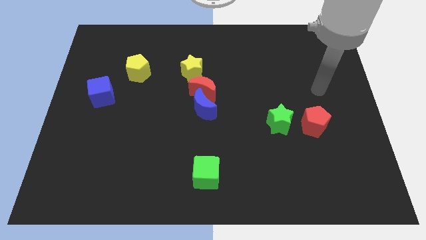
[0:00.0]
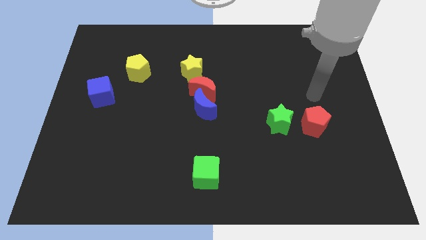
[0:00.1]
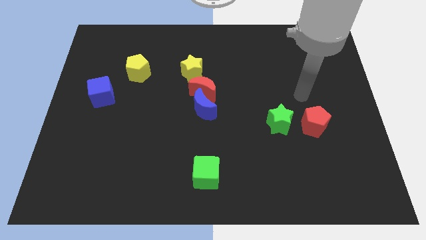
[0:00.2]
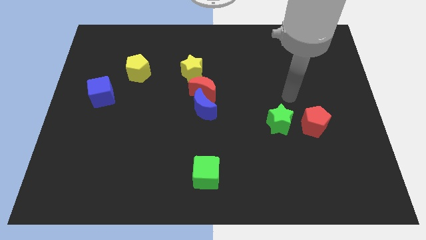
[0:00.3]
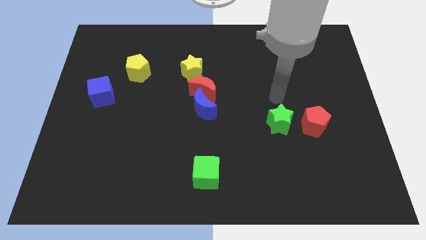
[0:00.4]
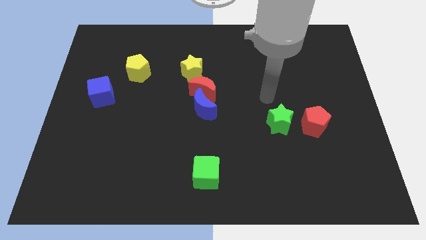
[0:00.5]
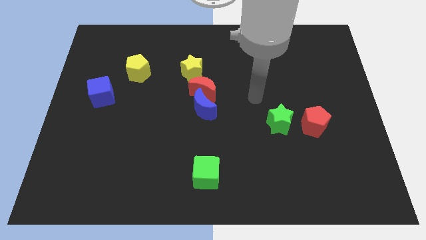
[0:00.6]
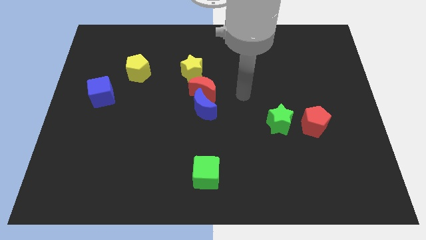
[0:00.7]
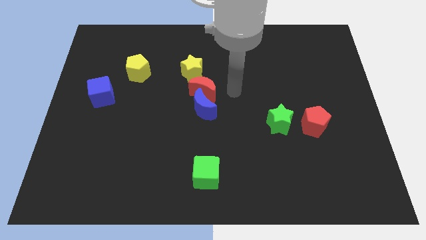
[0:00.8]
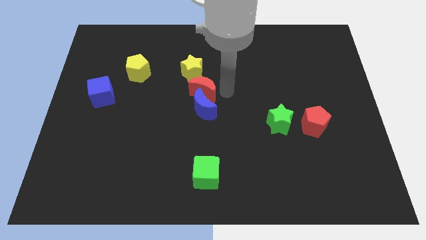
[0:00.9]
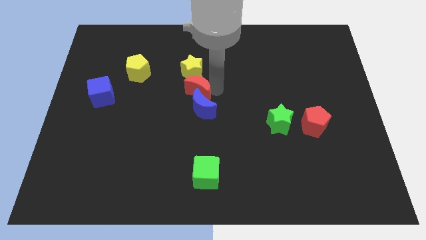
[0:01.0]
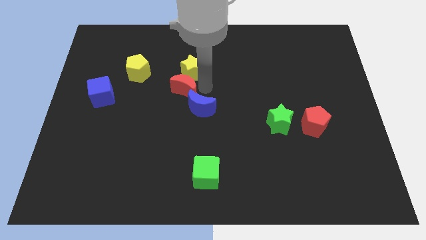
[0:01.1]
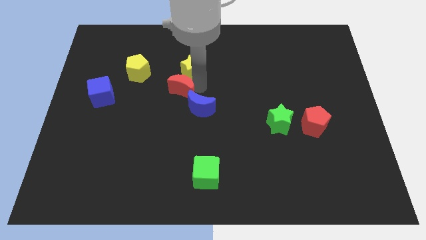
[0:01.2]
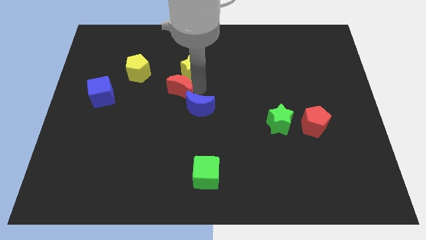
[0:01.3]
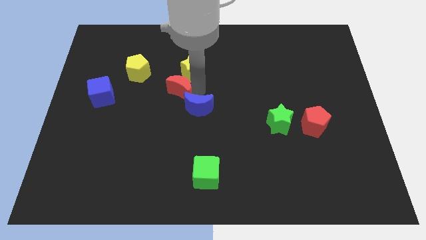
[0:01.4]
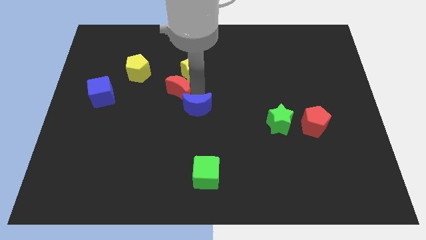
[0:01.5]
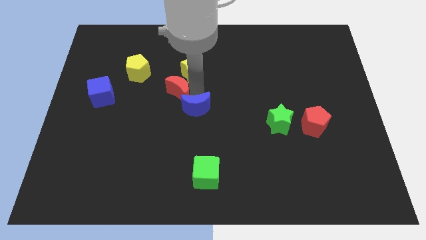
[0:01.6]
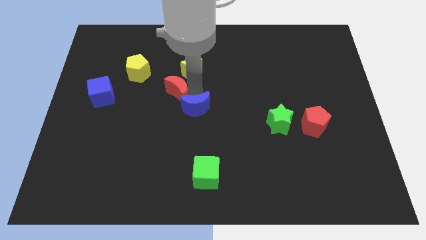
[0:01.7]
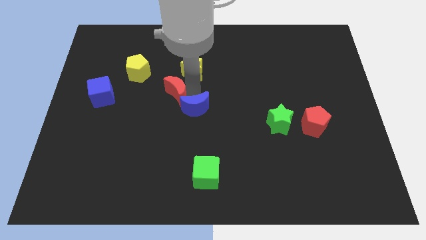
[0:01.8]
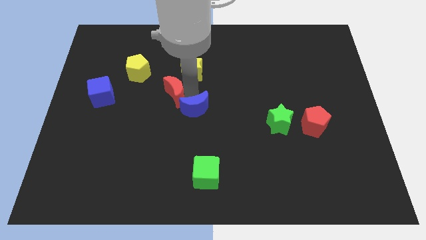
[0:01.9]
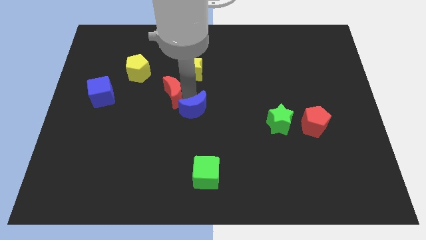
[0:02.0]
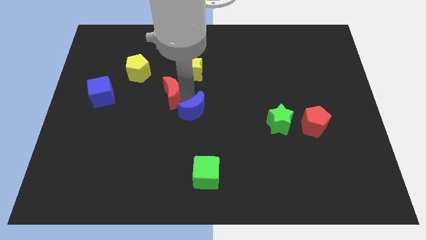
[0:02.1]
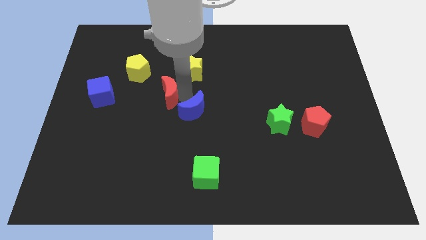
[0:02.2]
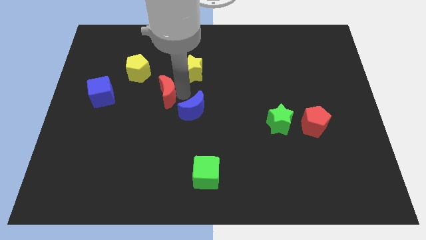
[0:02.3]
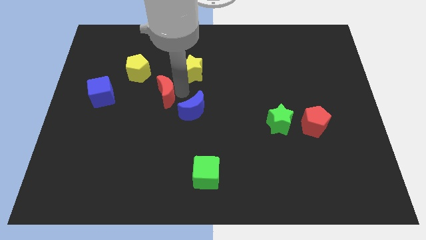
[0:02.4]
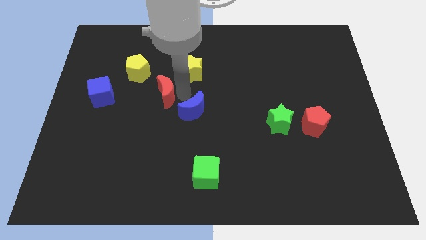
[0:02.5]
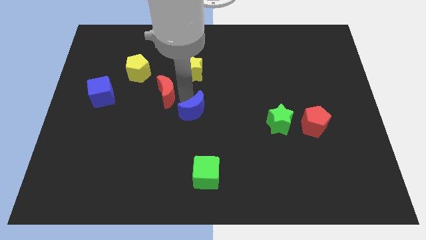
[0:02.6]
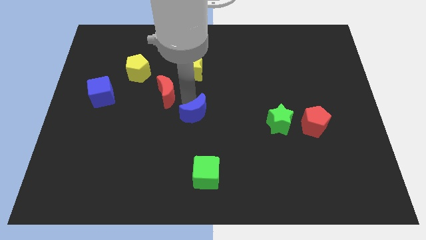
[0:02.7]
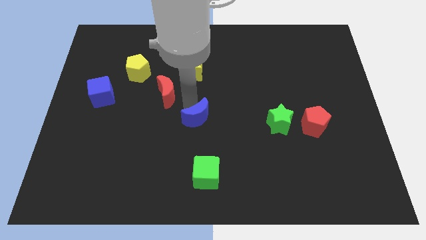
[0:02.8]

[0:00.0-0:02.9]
pull the blue moon apart from the red moon

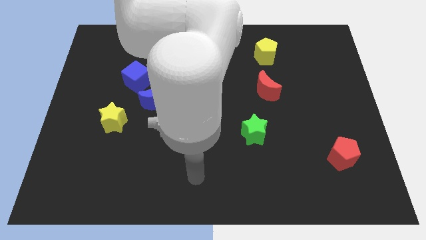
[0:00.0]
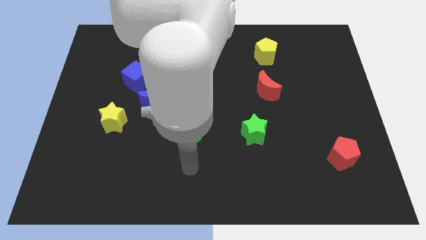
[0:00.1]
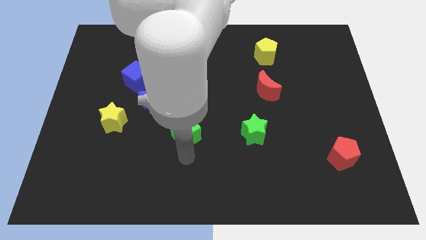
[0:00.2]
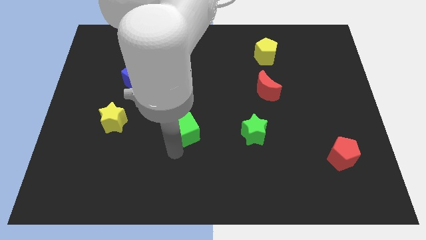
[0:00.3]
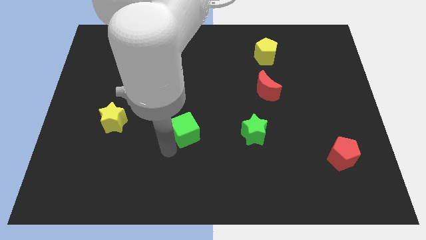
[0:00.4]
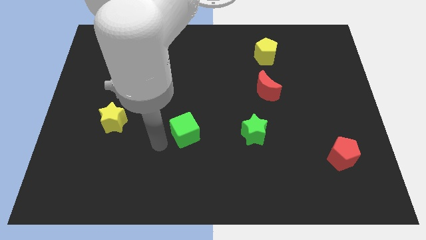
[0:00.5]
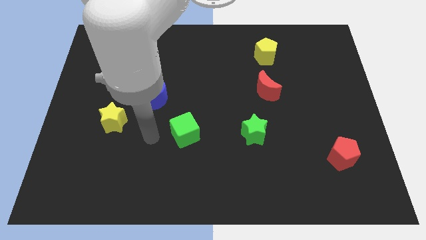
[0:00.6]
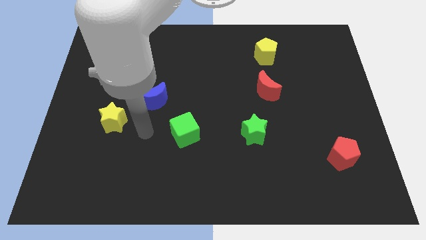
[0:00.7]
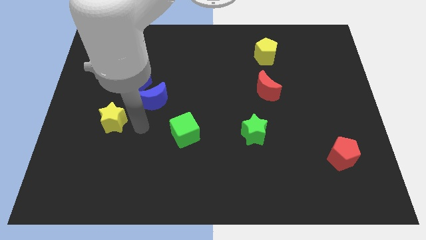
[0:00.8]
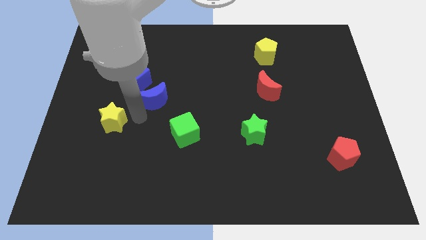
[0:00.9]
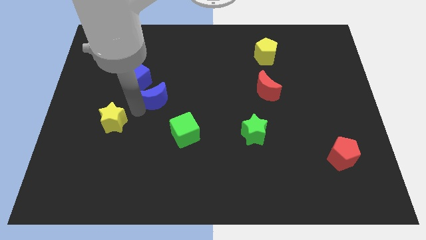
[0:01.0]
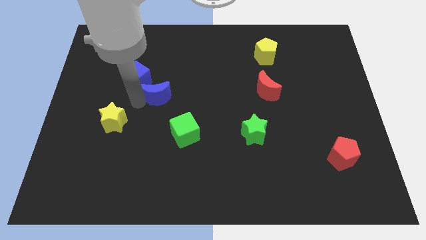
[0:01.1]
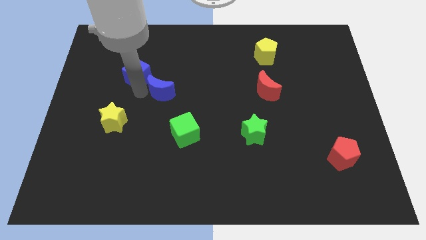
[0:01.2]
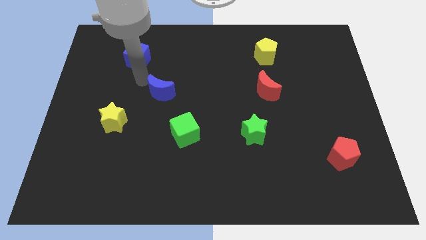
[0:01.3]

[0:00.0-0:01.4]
pull the blue moon apart from the blue cube

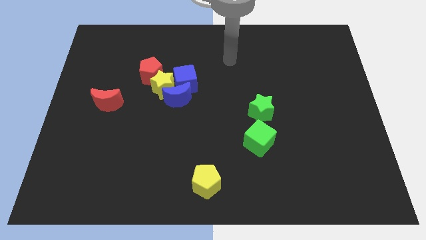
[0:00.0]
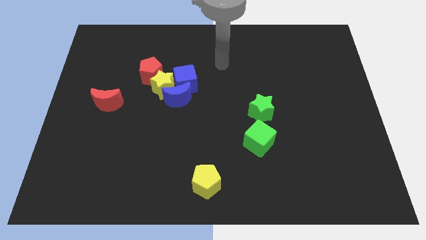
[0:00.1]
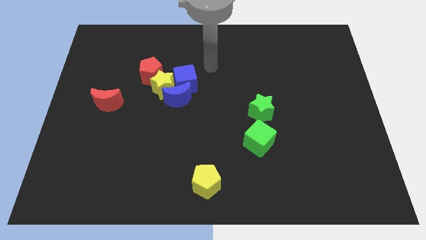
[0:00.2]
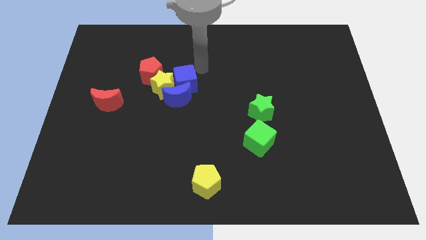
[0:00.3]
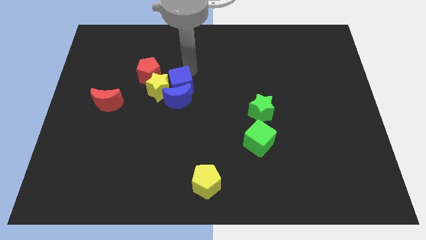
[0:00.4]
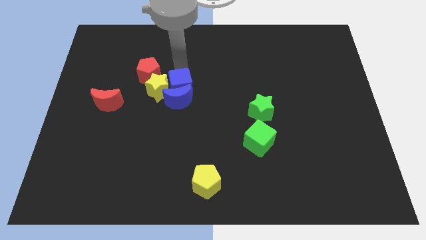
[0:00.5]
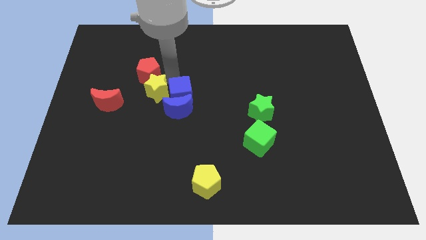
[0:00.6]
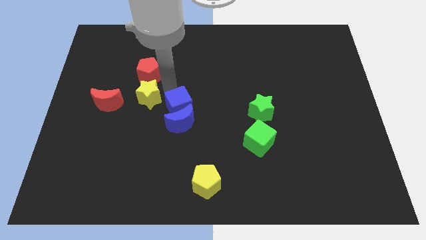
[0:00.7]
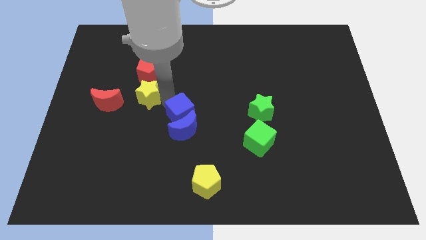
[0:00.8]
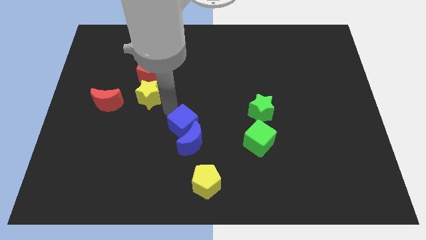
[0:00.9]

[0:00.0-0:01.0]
move the blue moon away from the yellow star and blue cube

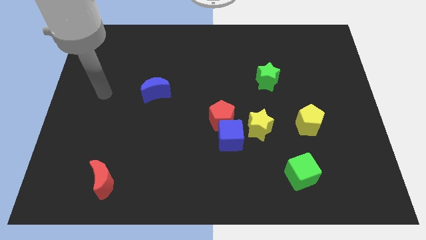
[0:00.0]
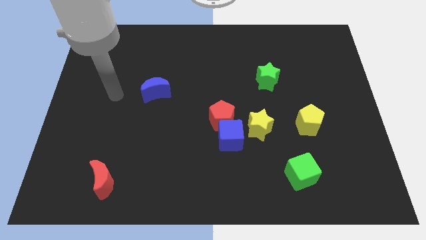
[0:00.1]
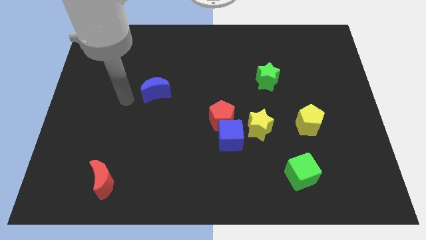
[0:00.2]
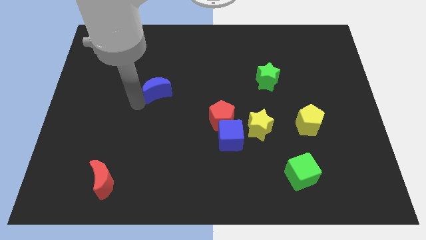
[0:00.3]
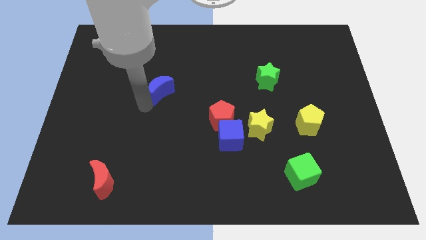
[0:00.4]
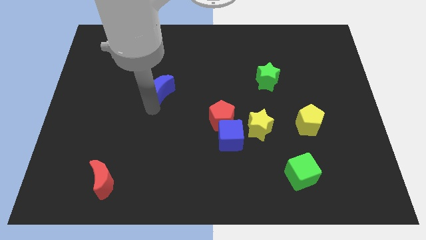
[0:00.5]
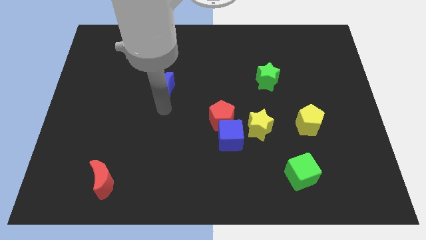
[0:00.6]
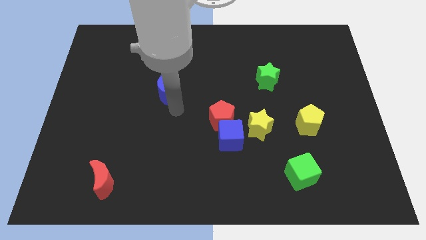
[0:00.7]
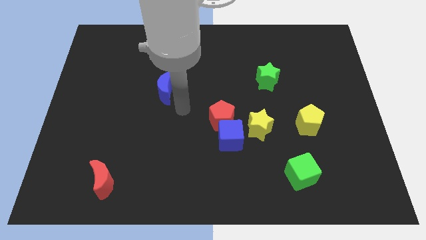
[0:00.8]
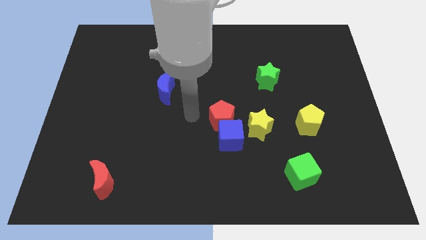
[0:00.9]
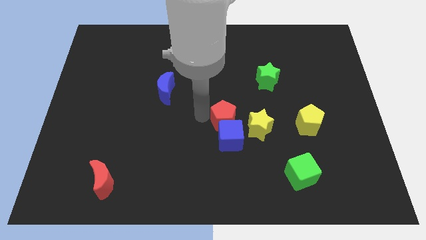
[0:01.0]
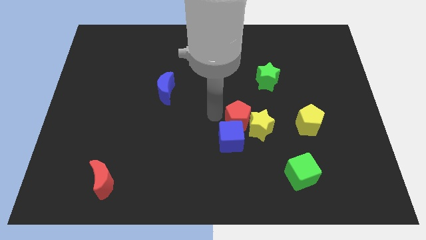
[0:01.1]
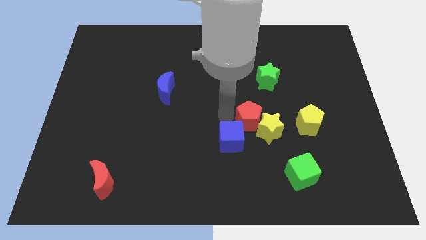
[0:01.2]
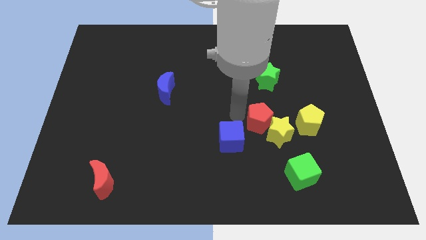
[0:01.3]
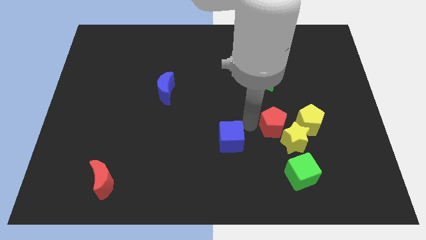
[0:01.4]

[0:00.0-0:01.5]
pull the blue cube apart from the red pentagon and yellow star

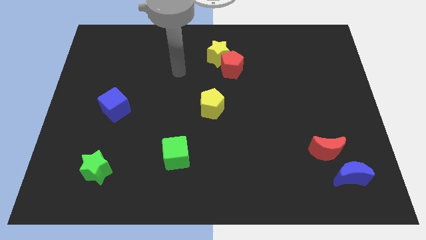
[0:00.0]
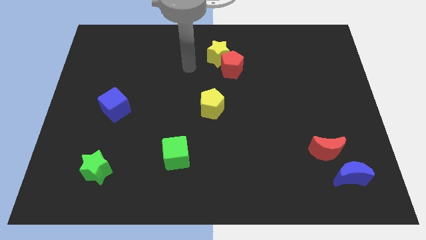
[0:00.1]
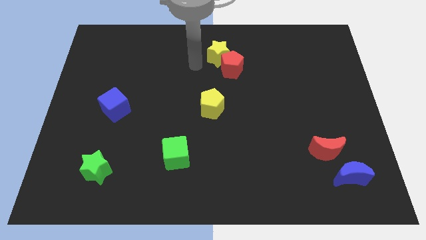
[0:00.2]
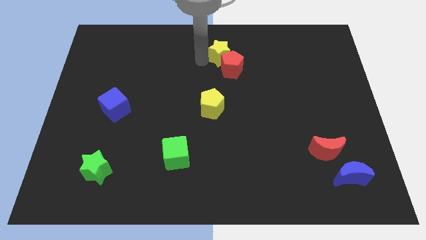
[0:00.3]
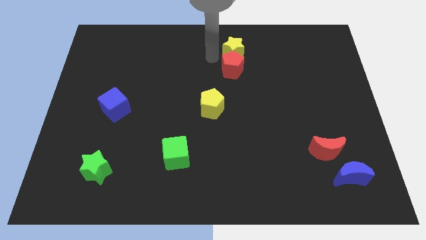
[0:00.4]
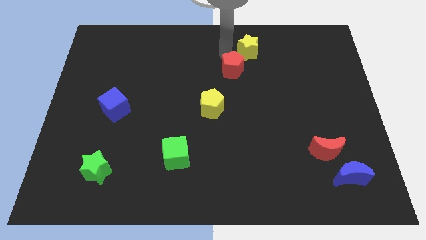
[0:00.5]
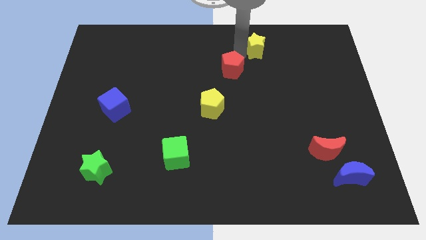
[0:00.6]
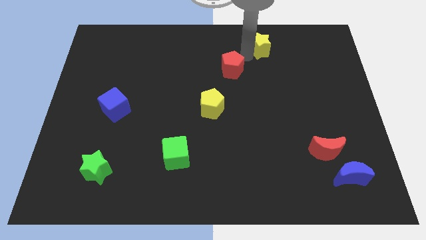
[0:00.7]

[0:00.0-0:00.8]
separate the red pentagon from the yellow star

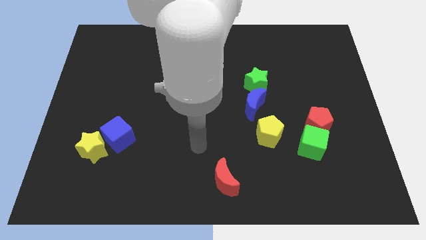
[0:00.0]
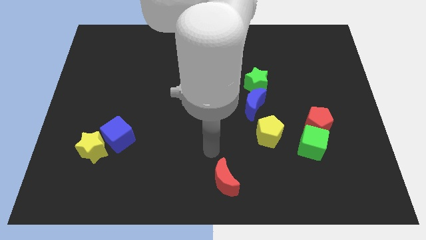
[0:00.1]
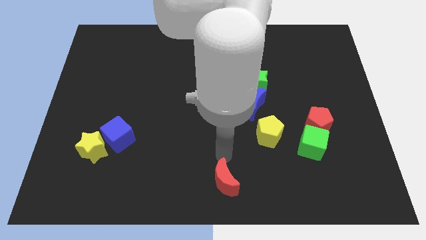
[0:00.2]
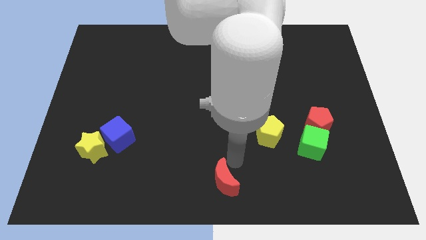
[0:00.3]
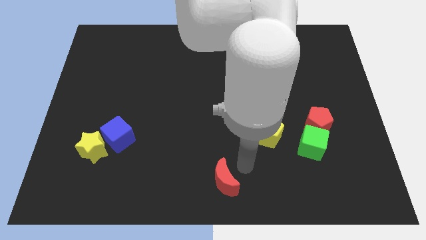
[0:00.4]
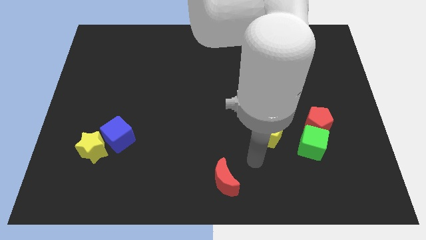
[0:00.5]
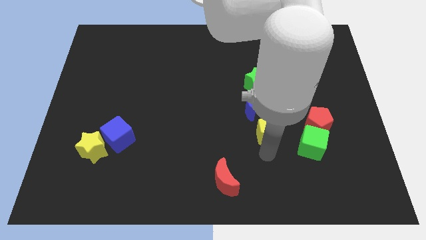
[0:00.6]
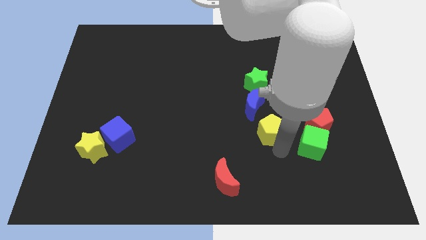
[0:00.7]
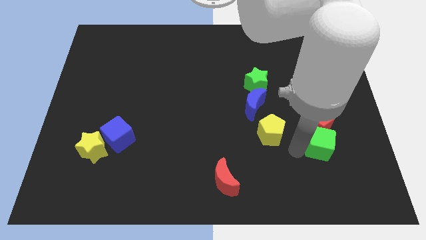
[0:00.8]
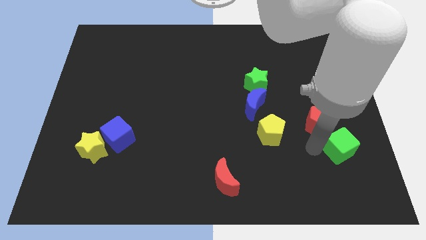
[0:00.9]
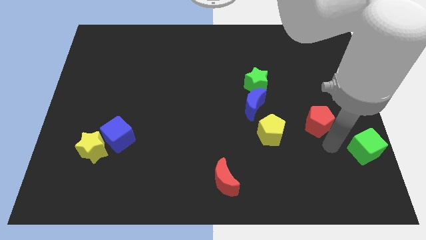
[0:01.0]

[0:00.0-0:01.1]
move the red pentagon away from the green cube

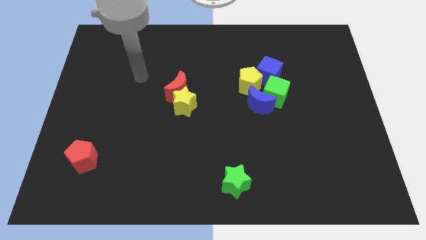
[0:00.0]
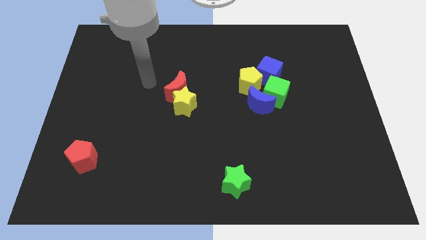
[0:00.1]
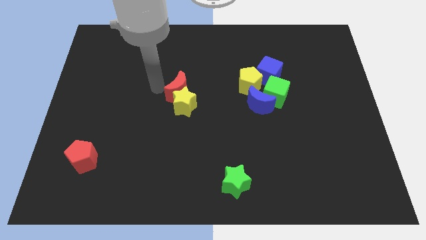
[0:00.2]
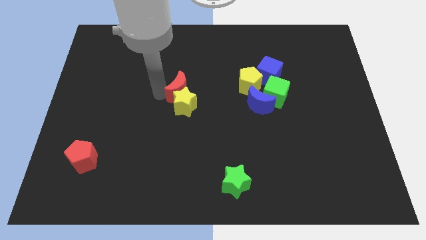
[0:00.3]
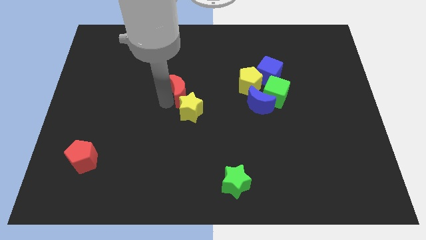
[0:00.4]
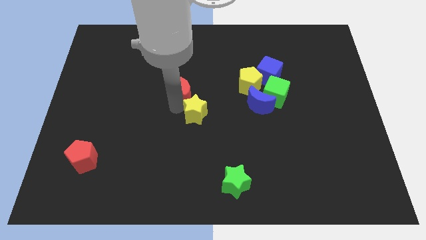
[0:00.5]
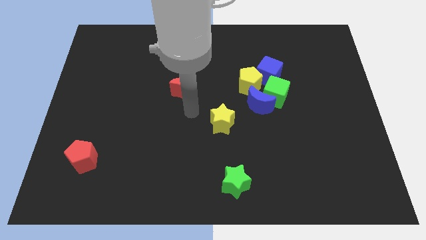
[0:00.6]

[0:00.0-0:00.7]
move the red moon away from the yellow star

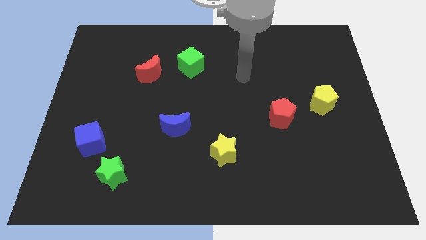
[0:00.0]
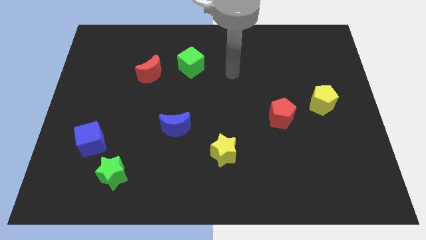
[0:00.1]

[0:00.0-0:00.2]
separate the blue cube from the green star
